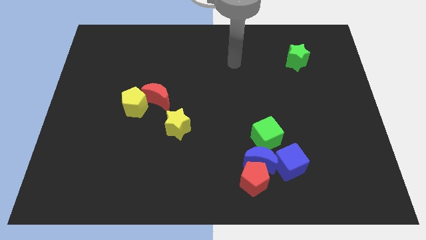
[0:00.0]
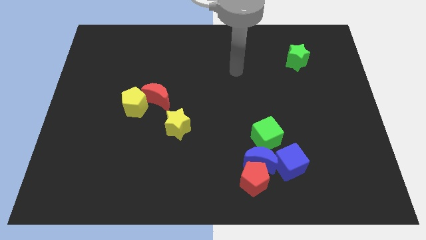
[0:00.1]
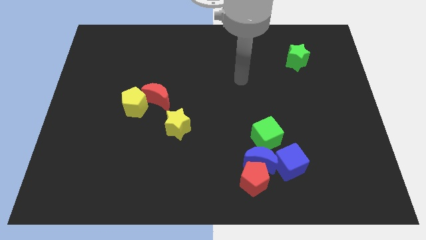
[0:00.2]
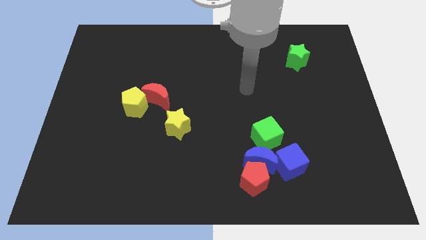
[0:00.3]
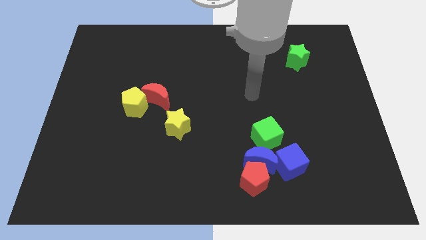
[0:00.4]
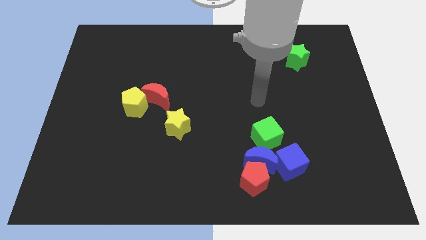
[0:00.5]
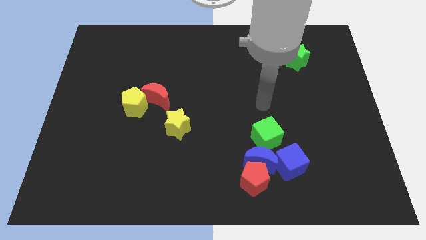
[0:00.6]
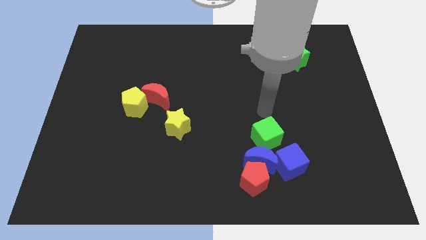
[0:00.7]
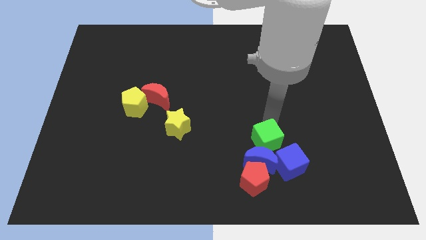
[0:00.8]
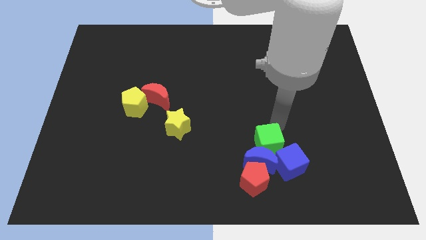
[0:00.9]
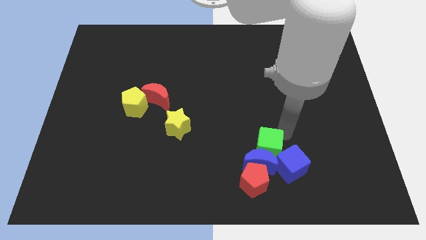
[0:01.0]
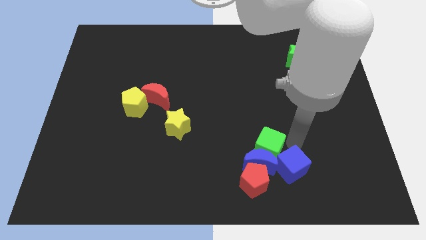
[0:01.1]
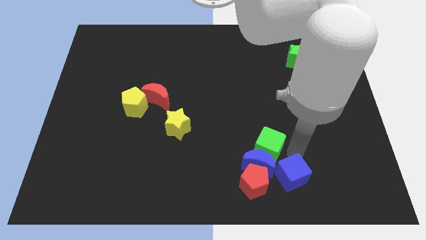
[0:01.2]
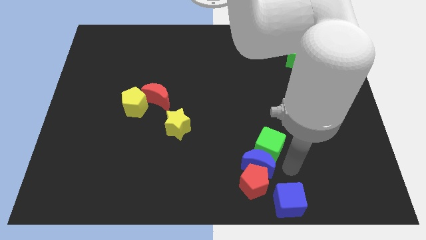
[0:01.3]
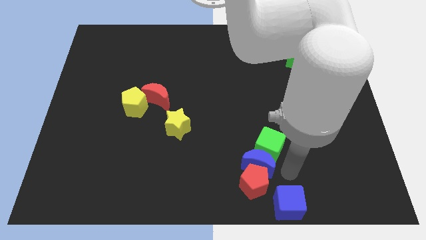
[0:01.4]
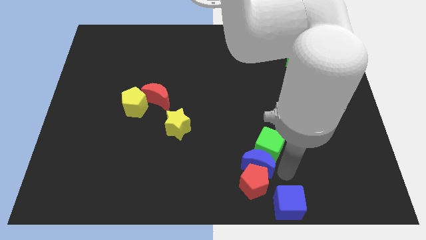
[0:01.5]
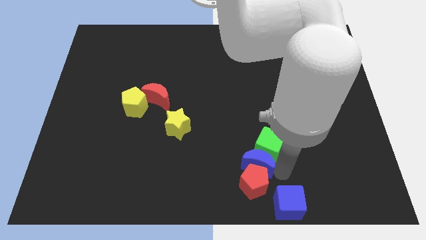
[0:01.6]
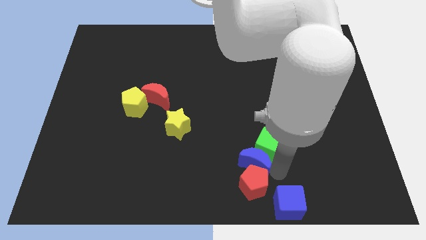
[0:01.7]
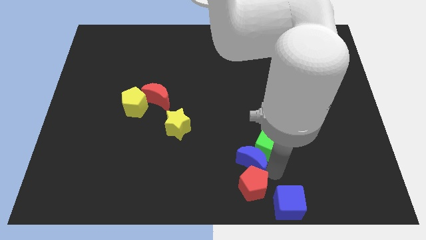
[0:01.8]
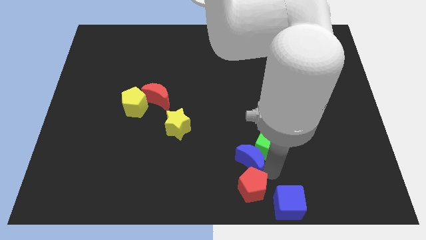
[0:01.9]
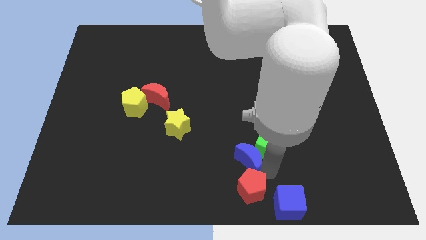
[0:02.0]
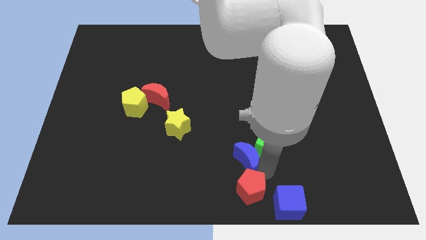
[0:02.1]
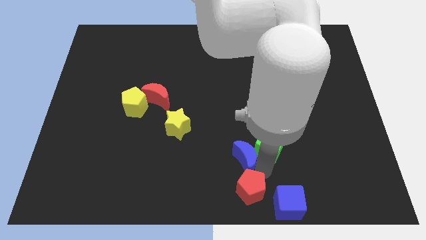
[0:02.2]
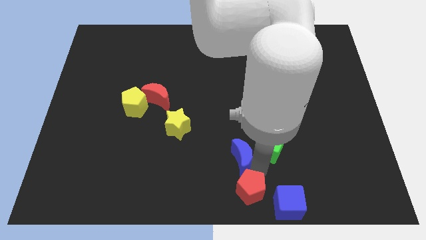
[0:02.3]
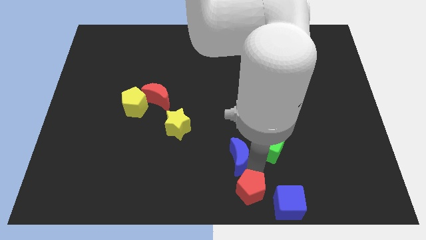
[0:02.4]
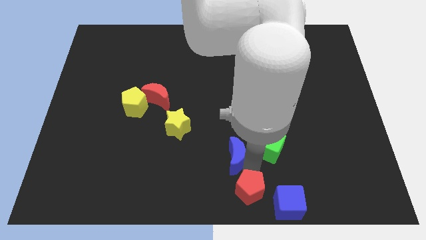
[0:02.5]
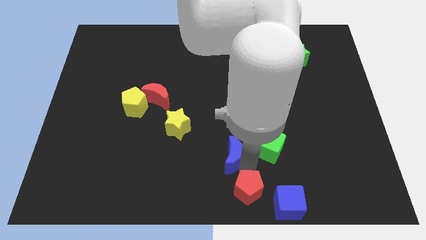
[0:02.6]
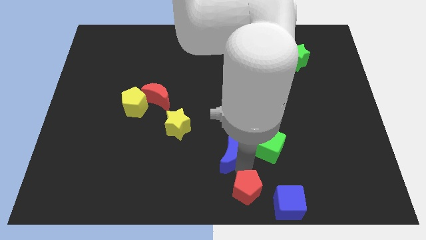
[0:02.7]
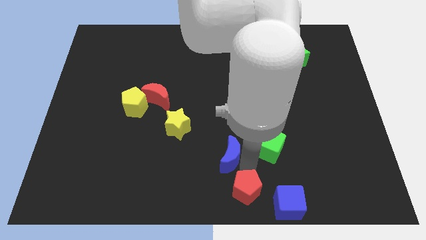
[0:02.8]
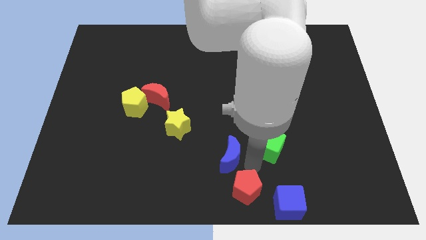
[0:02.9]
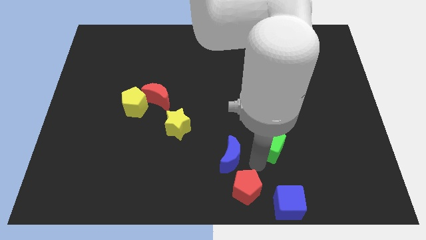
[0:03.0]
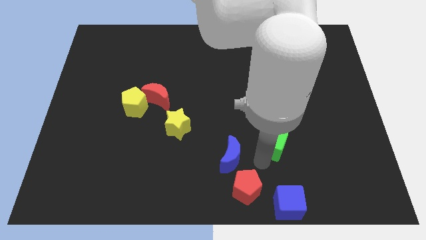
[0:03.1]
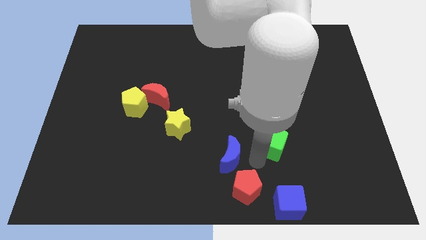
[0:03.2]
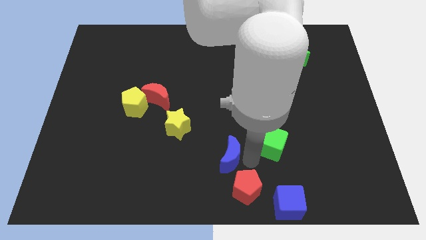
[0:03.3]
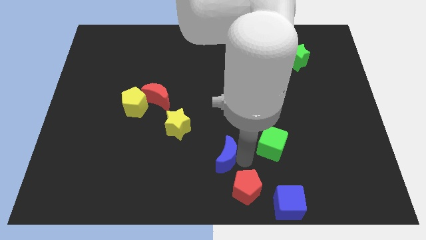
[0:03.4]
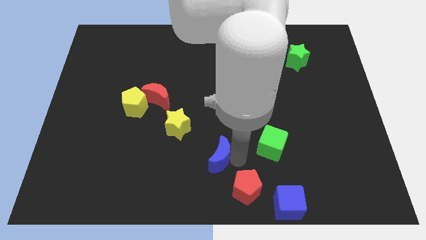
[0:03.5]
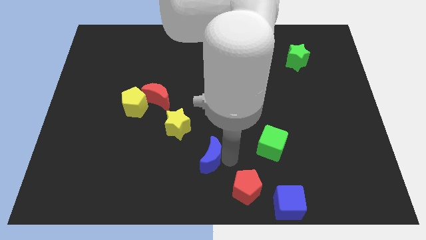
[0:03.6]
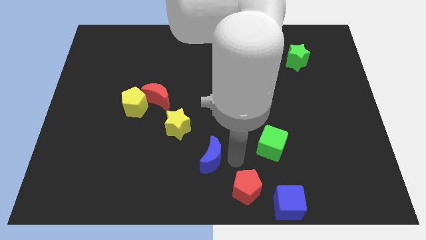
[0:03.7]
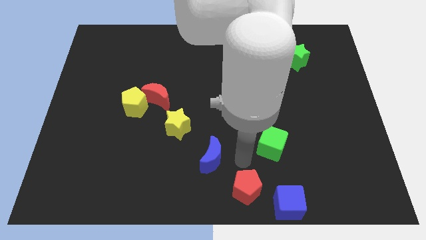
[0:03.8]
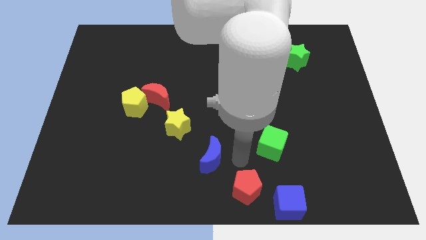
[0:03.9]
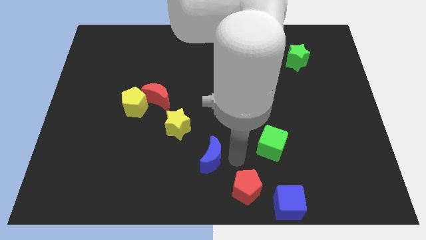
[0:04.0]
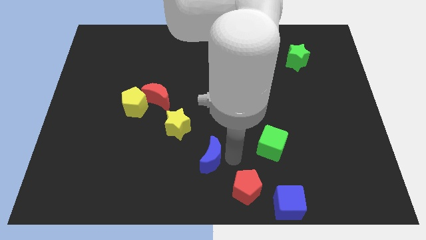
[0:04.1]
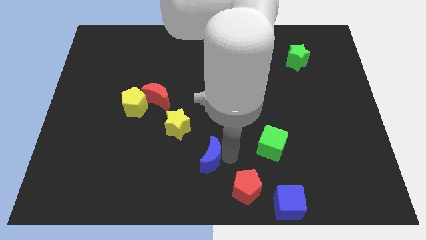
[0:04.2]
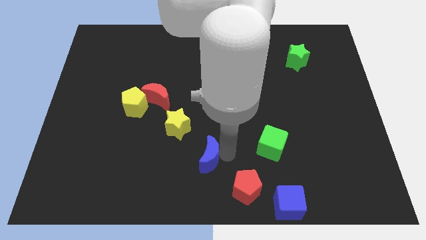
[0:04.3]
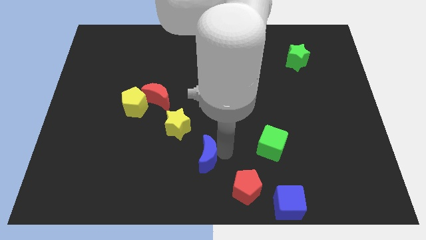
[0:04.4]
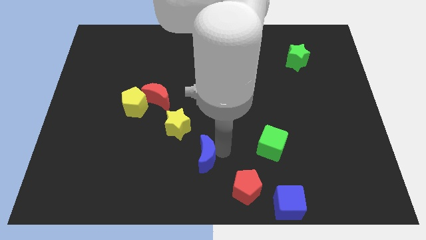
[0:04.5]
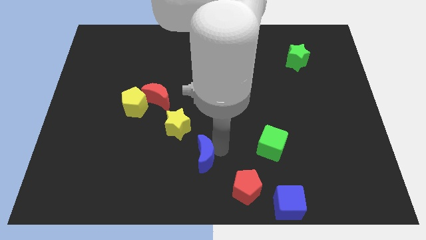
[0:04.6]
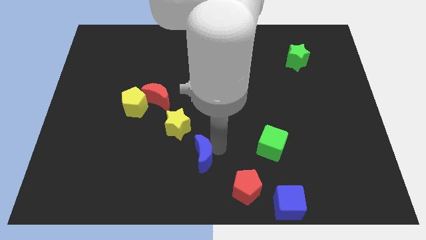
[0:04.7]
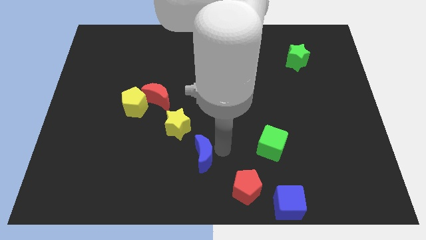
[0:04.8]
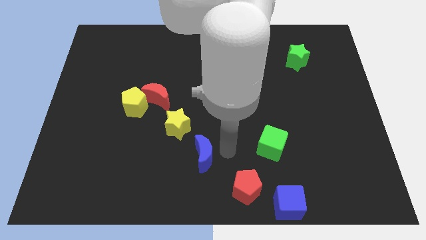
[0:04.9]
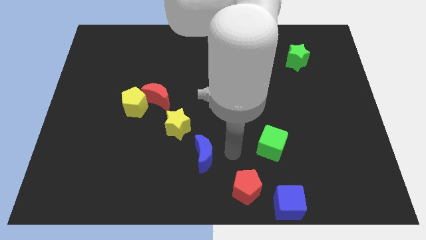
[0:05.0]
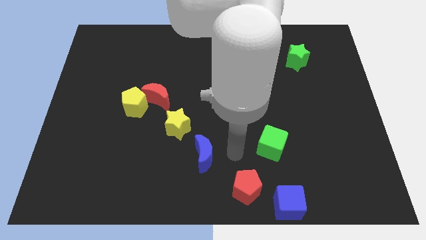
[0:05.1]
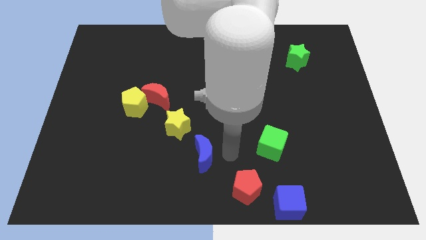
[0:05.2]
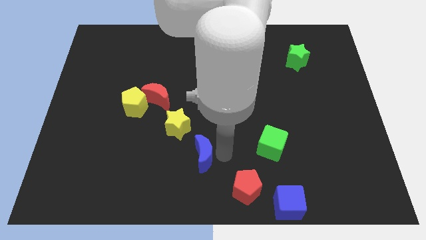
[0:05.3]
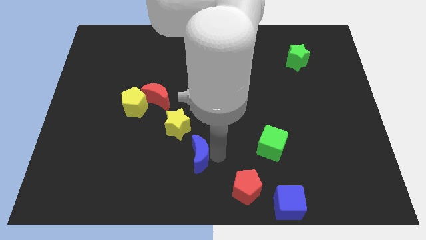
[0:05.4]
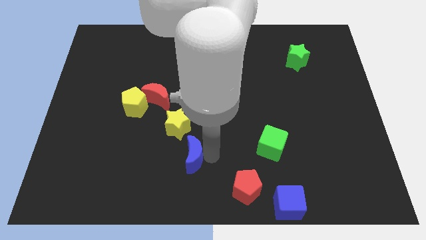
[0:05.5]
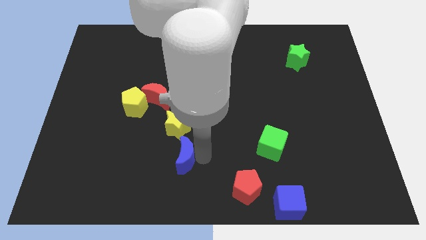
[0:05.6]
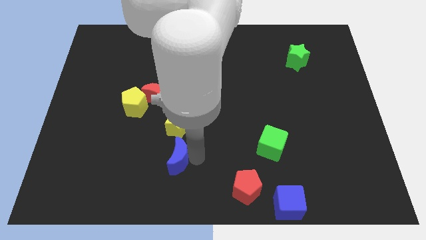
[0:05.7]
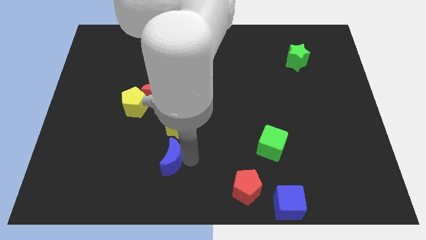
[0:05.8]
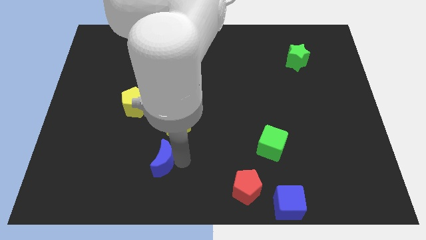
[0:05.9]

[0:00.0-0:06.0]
push the blue moon left

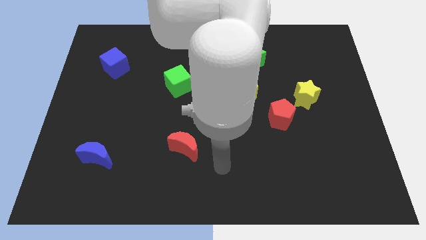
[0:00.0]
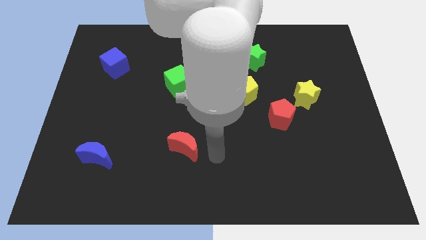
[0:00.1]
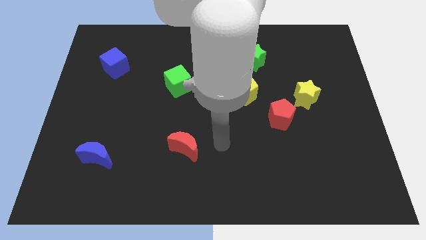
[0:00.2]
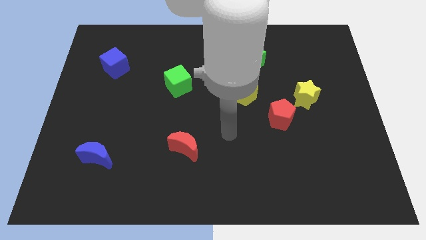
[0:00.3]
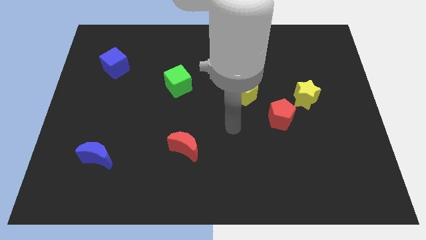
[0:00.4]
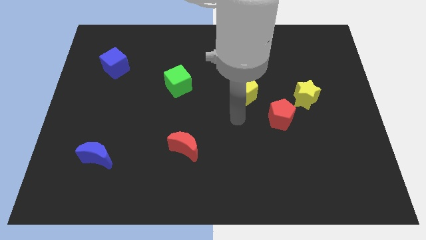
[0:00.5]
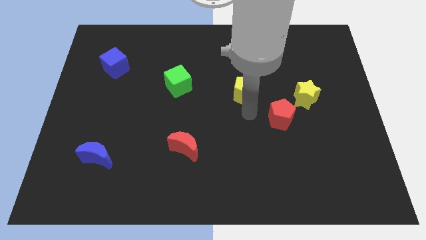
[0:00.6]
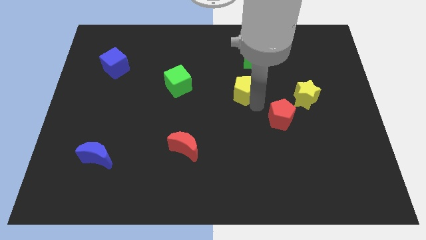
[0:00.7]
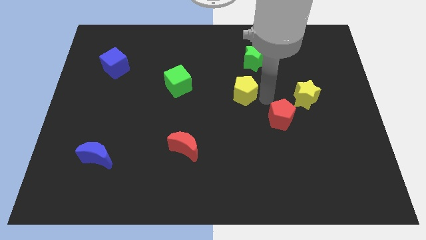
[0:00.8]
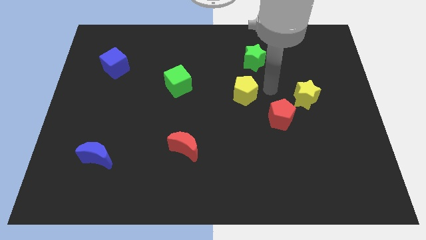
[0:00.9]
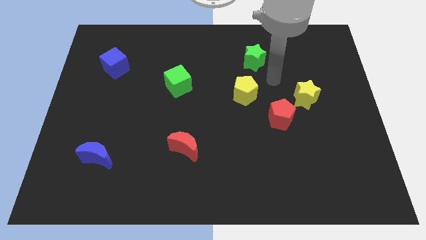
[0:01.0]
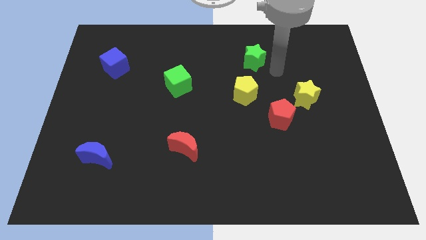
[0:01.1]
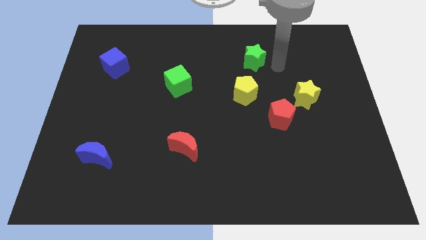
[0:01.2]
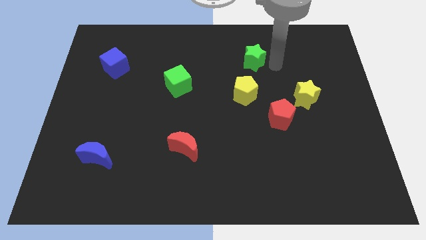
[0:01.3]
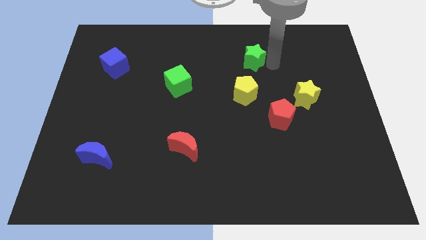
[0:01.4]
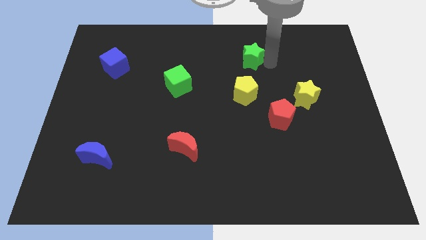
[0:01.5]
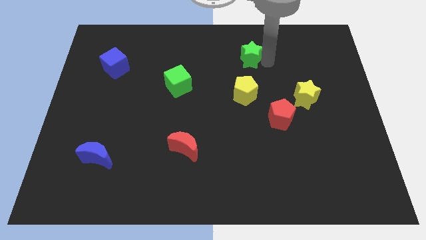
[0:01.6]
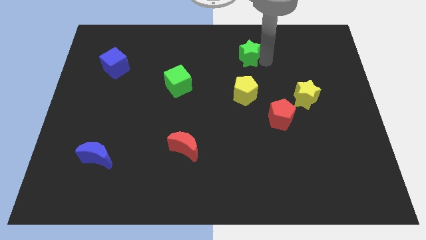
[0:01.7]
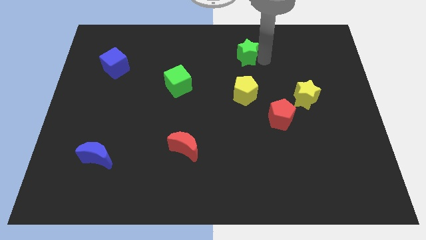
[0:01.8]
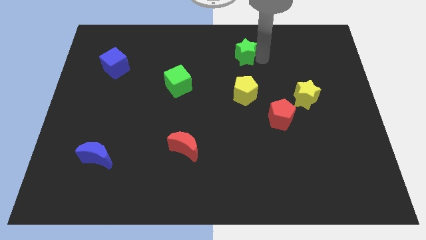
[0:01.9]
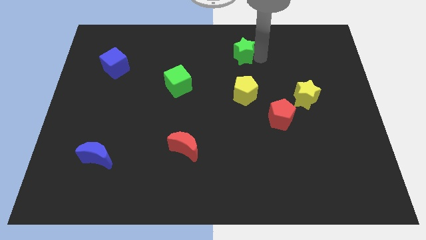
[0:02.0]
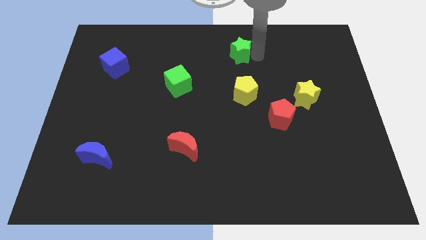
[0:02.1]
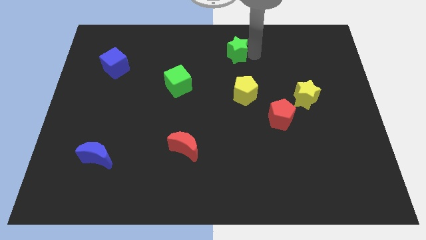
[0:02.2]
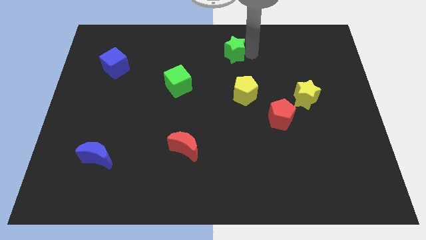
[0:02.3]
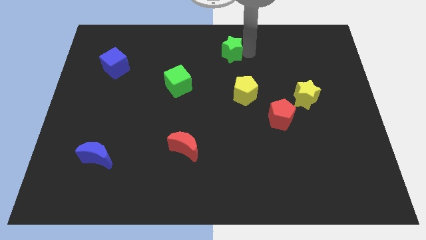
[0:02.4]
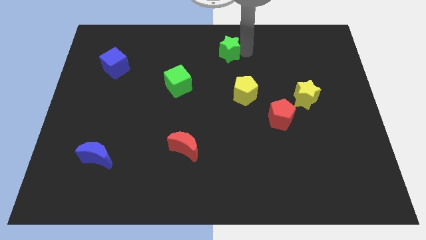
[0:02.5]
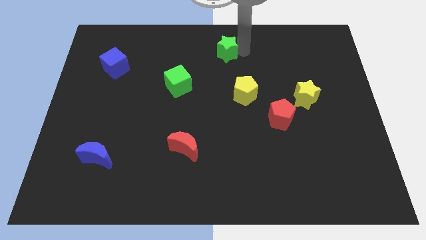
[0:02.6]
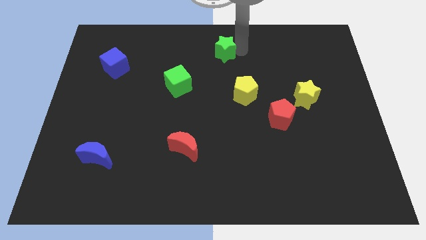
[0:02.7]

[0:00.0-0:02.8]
slightly push the green star left
